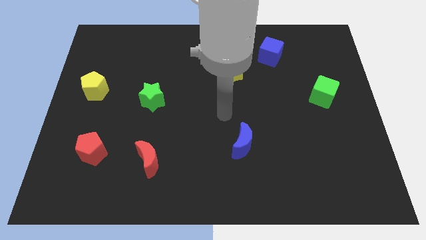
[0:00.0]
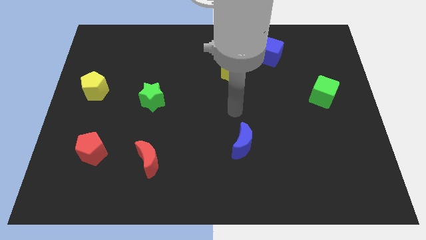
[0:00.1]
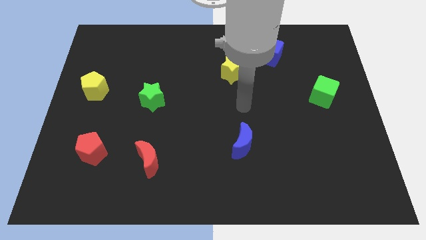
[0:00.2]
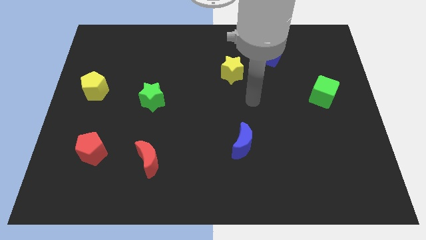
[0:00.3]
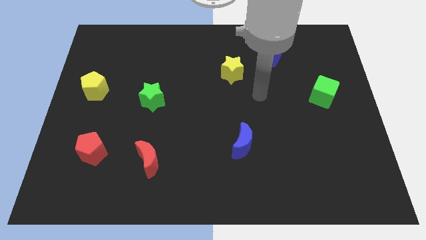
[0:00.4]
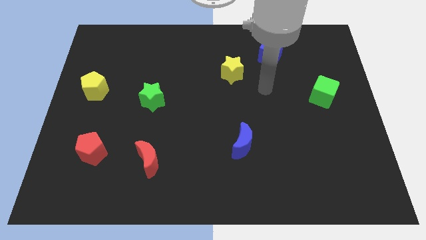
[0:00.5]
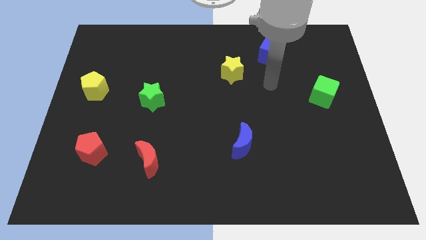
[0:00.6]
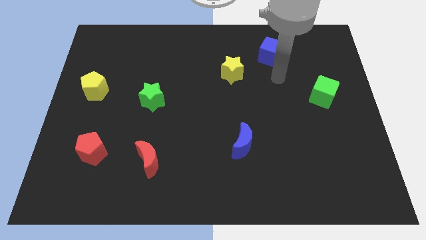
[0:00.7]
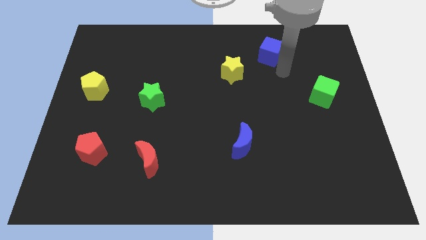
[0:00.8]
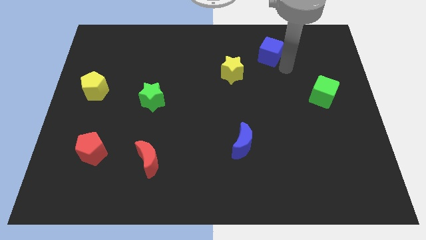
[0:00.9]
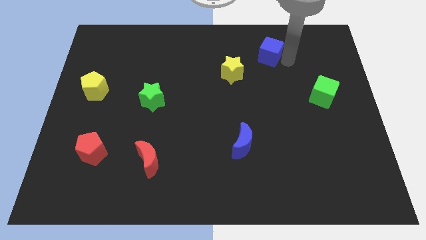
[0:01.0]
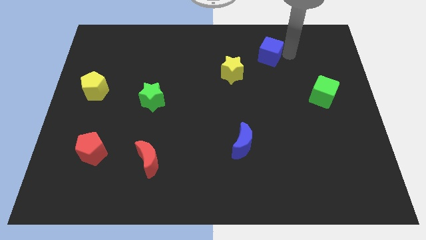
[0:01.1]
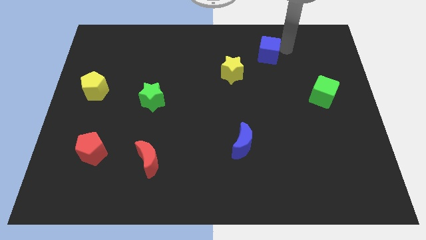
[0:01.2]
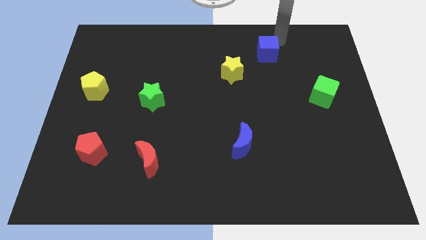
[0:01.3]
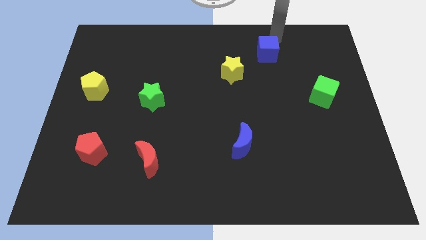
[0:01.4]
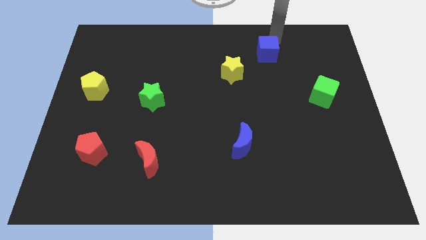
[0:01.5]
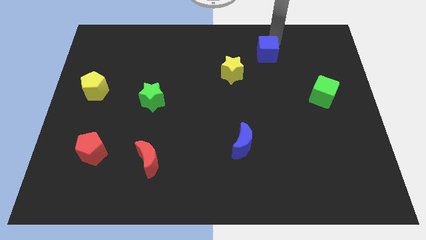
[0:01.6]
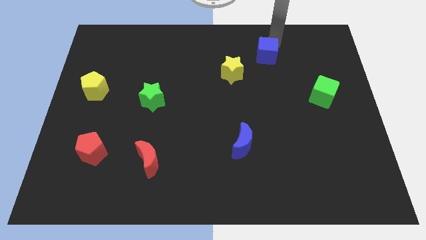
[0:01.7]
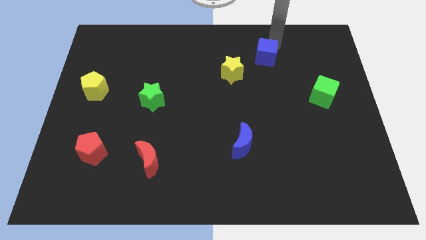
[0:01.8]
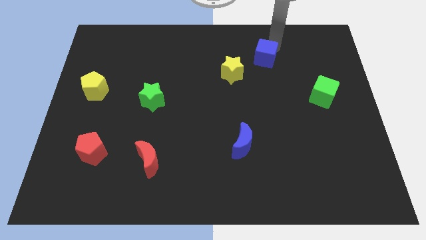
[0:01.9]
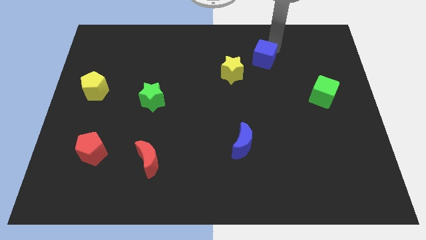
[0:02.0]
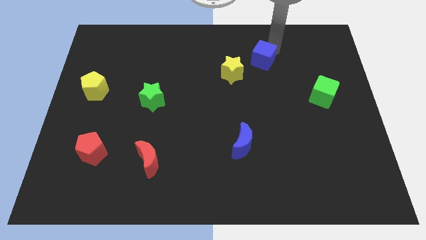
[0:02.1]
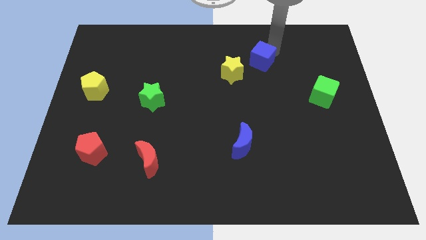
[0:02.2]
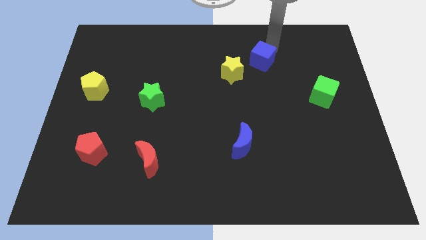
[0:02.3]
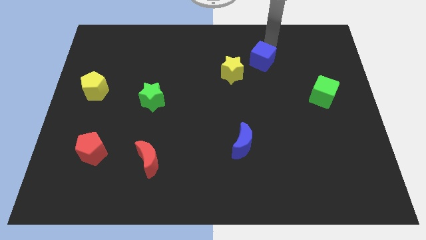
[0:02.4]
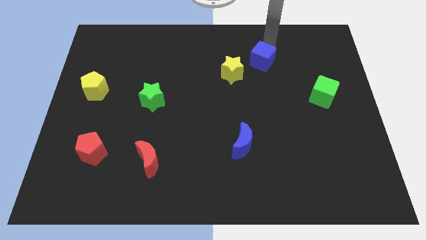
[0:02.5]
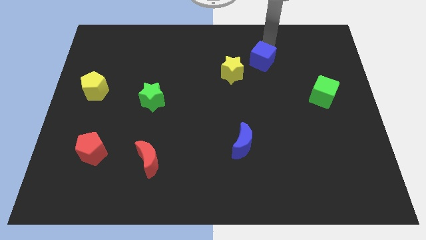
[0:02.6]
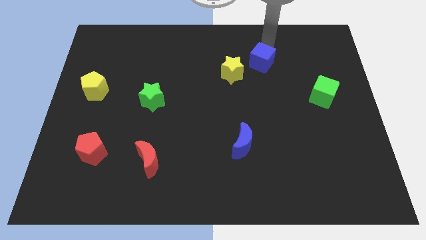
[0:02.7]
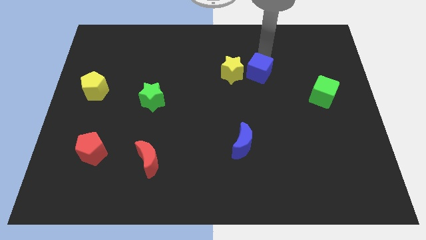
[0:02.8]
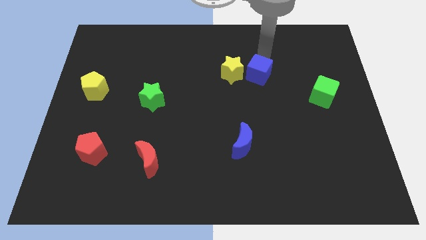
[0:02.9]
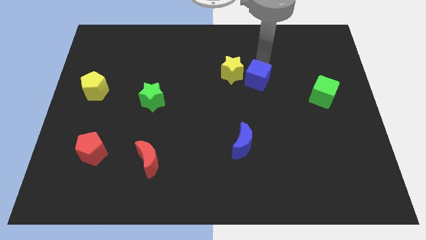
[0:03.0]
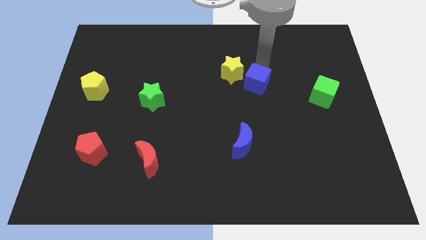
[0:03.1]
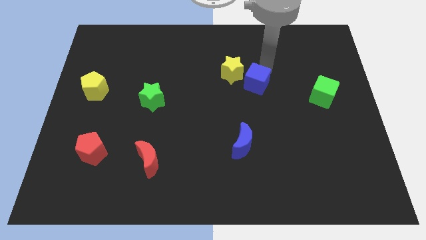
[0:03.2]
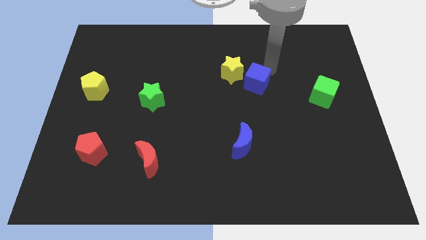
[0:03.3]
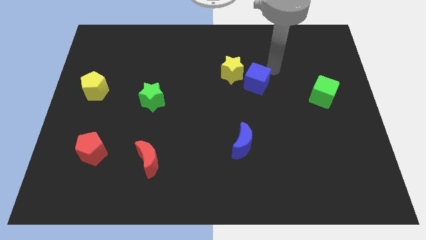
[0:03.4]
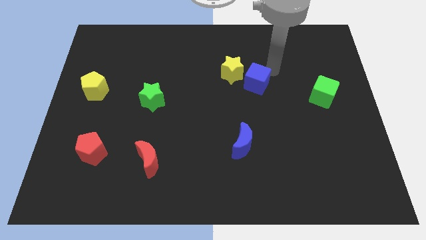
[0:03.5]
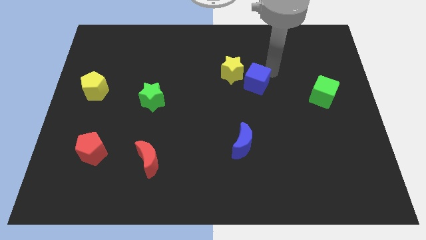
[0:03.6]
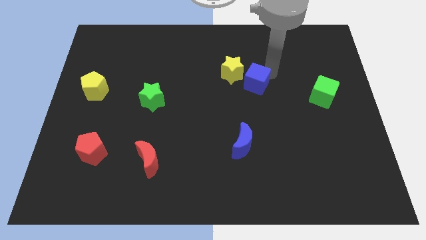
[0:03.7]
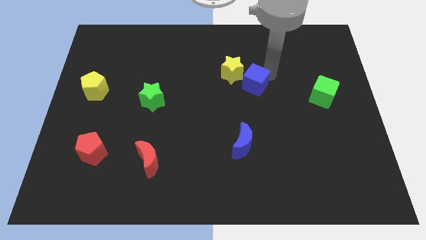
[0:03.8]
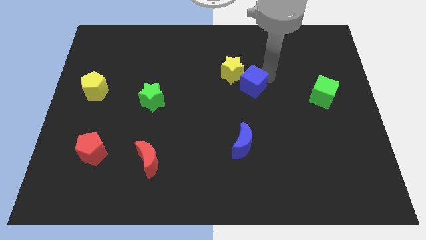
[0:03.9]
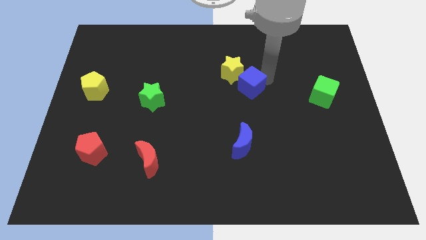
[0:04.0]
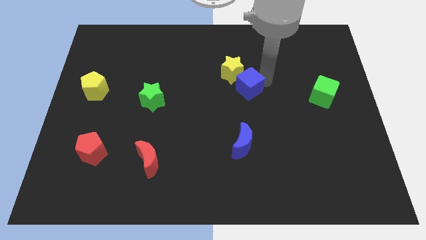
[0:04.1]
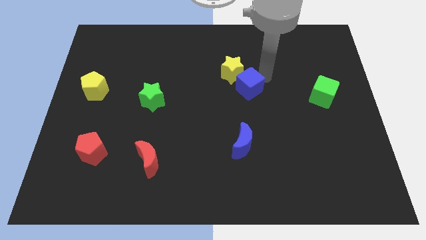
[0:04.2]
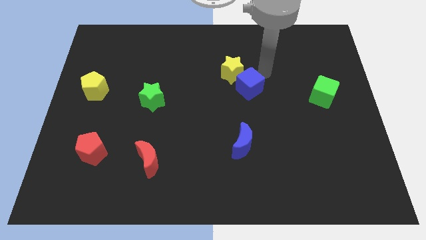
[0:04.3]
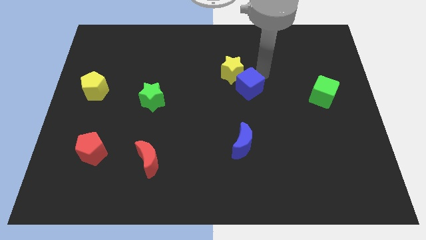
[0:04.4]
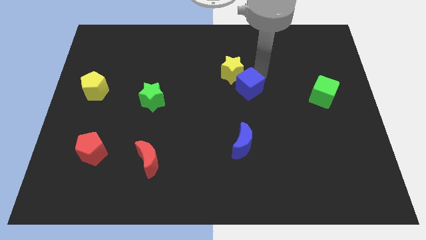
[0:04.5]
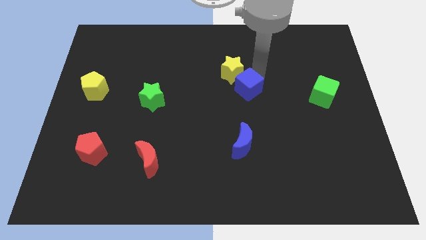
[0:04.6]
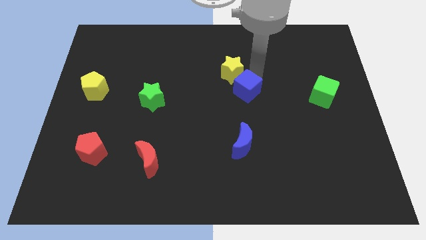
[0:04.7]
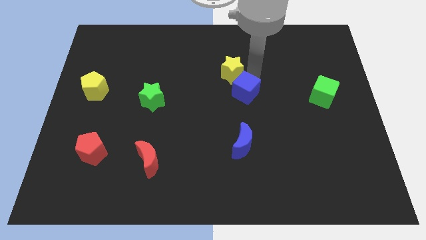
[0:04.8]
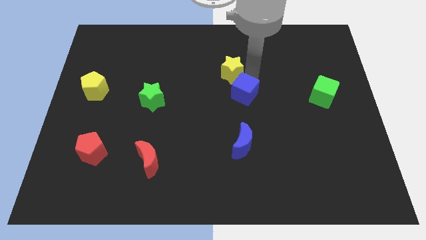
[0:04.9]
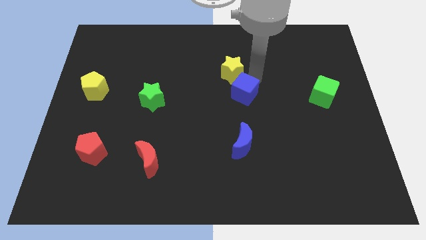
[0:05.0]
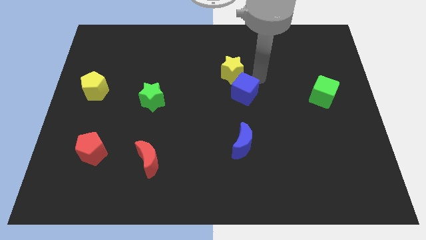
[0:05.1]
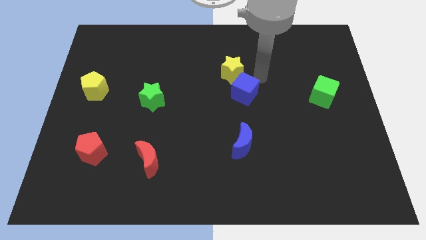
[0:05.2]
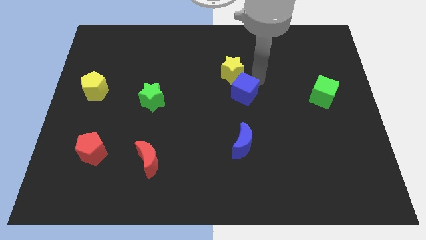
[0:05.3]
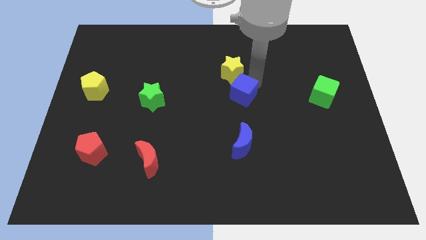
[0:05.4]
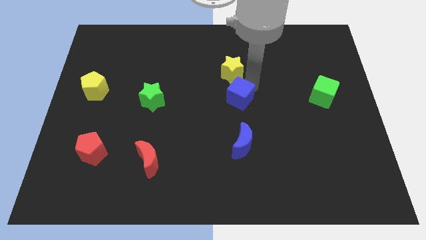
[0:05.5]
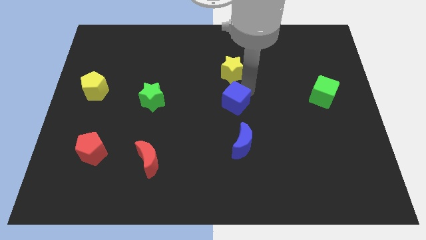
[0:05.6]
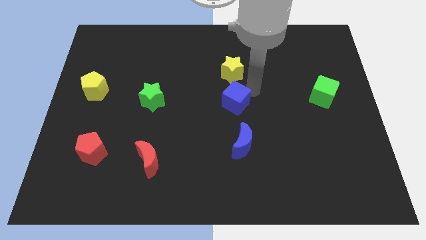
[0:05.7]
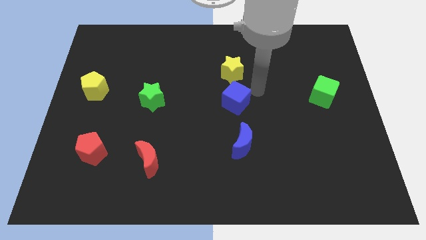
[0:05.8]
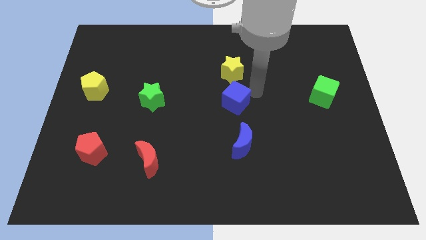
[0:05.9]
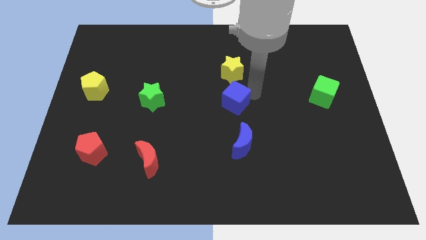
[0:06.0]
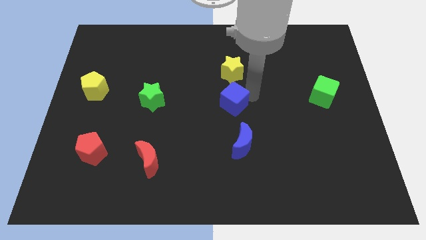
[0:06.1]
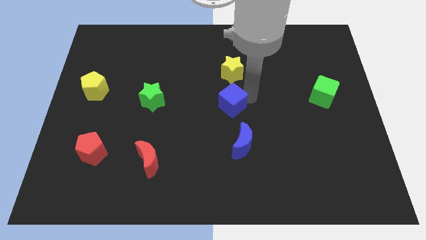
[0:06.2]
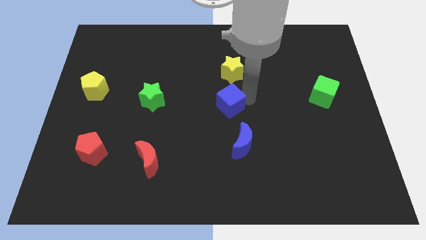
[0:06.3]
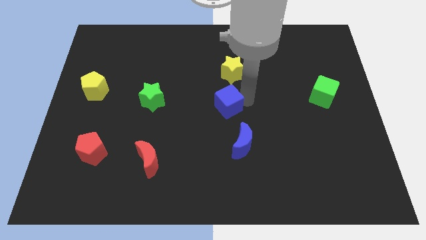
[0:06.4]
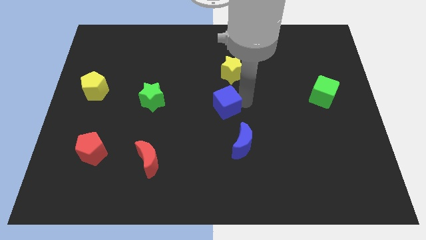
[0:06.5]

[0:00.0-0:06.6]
push the blue cube down and then to the left

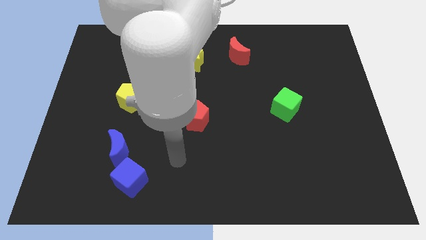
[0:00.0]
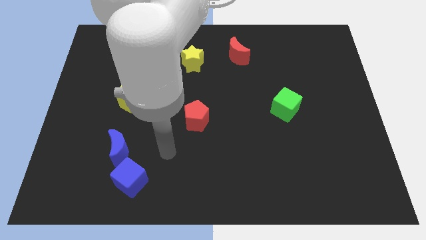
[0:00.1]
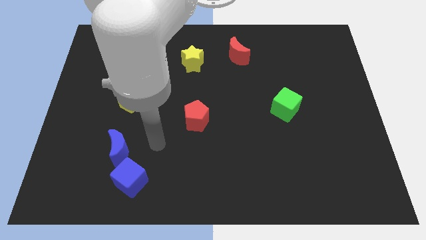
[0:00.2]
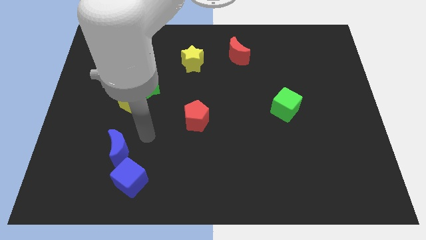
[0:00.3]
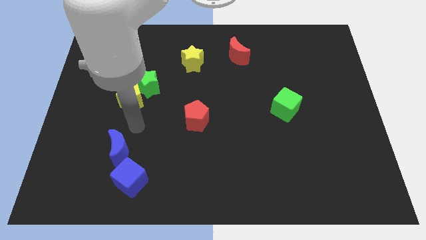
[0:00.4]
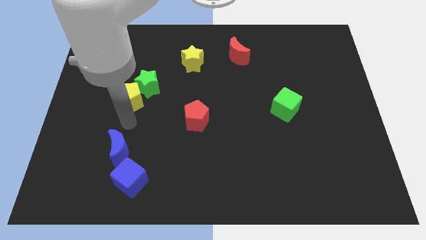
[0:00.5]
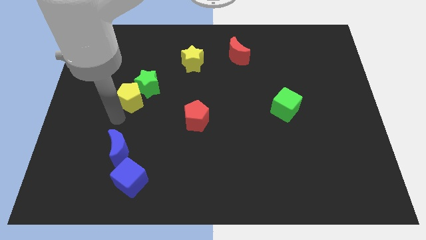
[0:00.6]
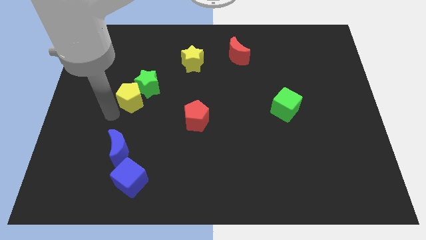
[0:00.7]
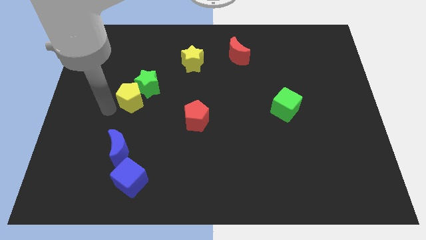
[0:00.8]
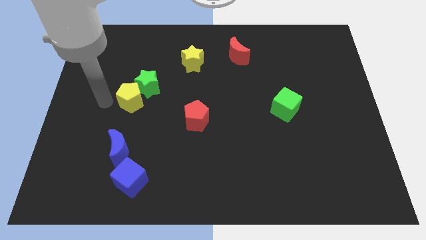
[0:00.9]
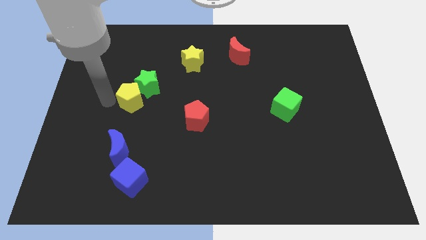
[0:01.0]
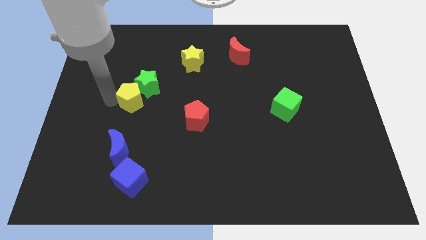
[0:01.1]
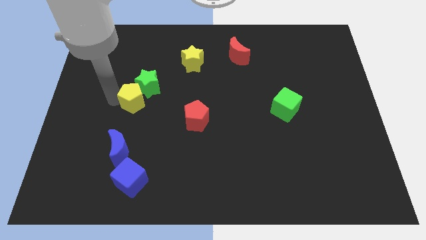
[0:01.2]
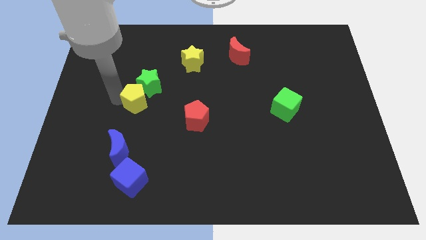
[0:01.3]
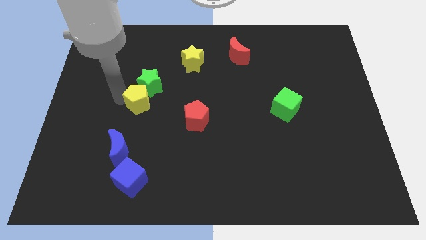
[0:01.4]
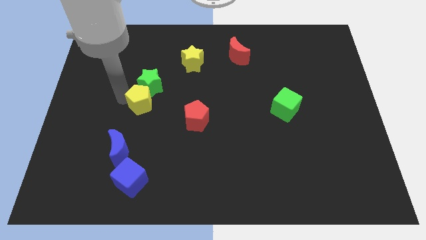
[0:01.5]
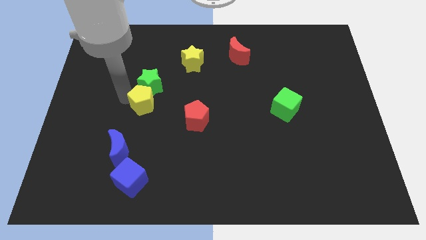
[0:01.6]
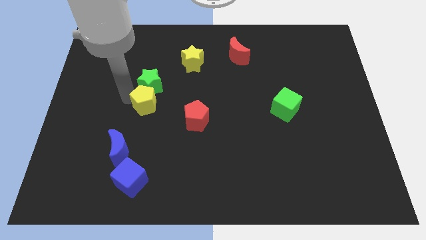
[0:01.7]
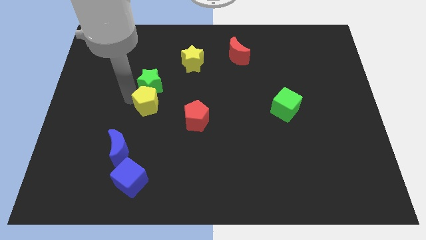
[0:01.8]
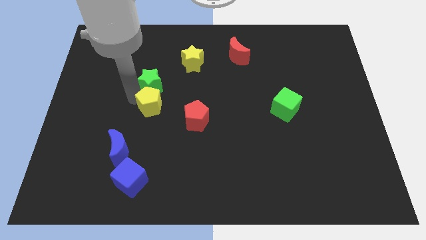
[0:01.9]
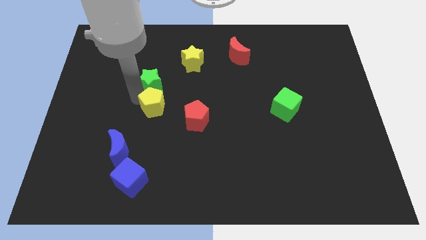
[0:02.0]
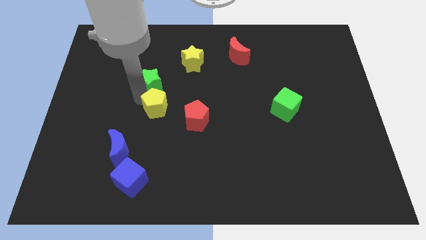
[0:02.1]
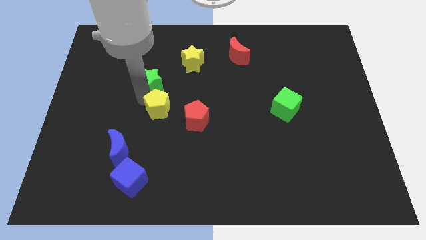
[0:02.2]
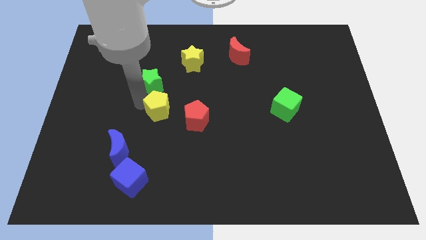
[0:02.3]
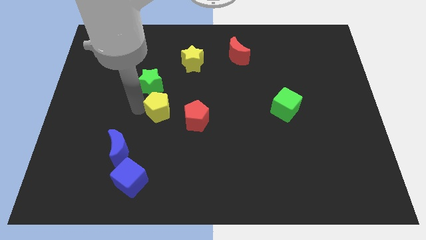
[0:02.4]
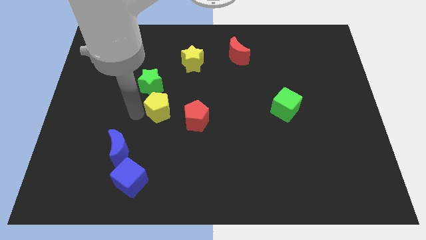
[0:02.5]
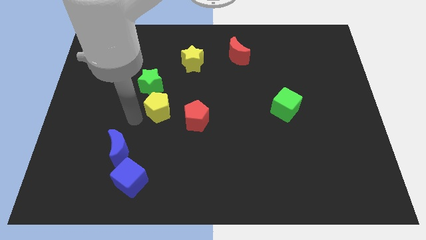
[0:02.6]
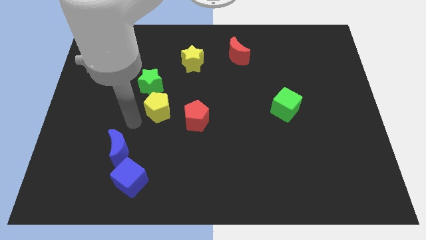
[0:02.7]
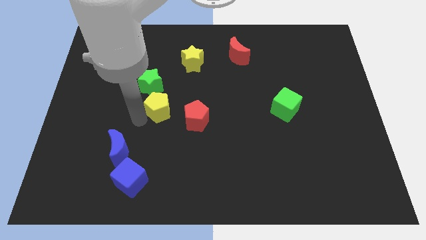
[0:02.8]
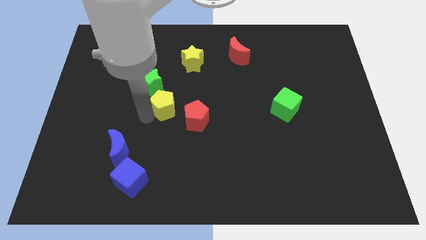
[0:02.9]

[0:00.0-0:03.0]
push the yellow pentagon to the right a little bit
